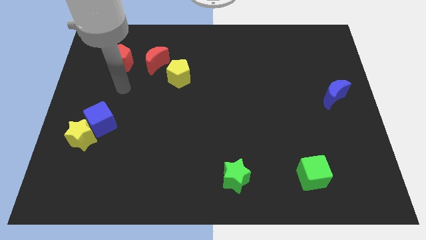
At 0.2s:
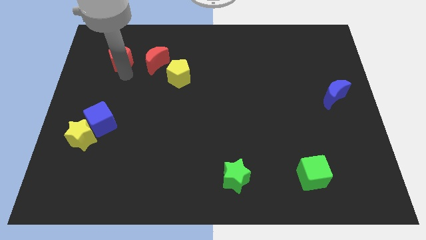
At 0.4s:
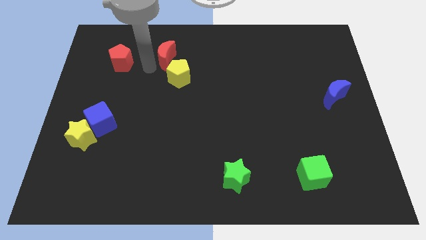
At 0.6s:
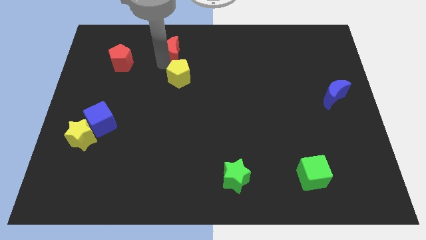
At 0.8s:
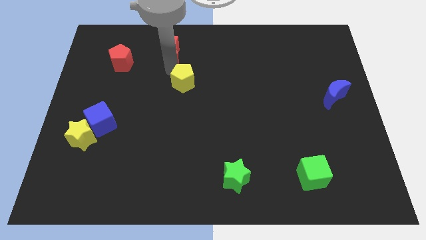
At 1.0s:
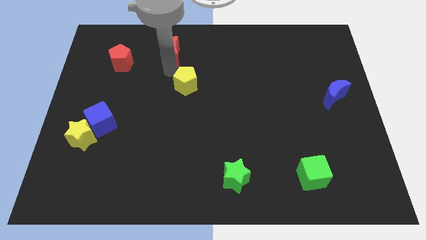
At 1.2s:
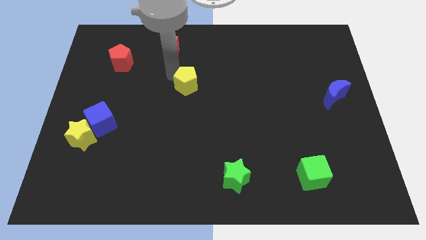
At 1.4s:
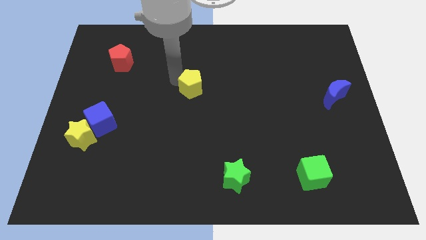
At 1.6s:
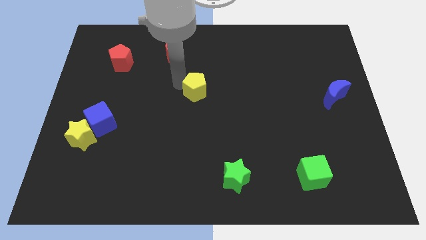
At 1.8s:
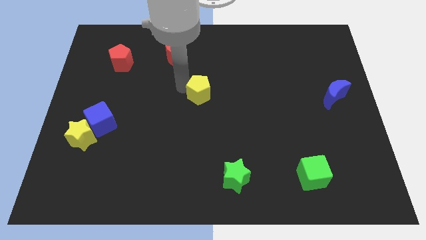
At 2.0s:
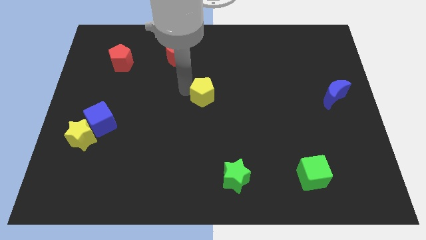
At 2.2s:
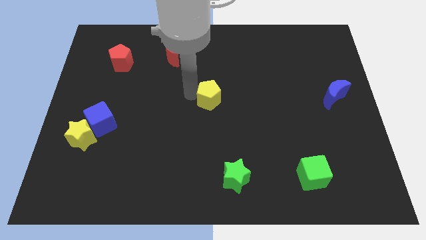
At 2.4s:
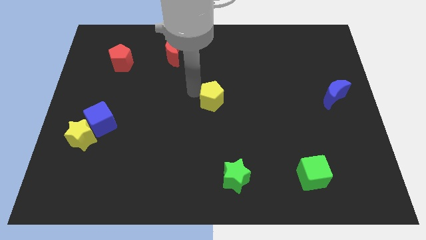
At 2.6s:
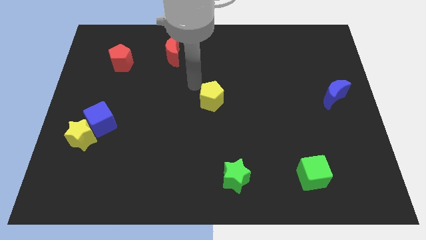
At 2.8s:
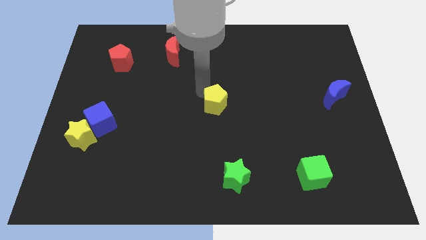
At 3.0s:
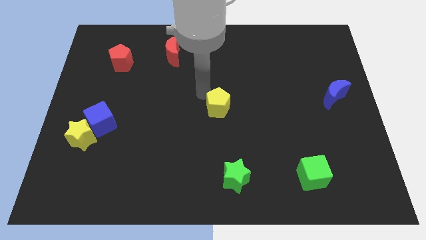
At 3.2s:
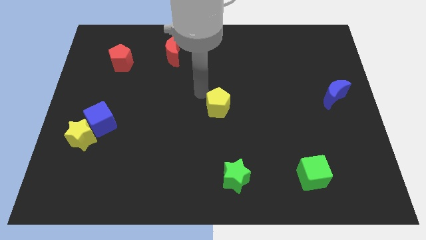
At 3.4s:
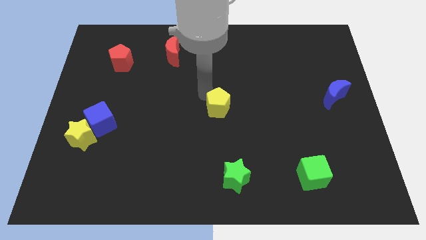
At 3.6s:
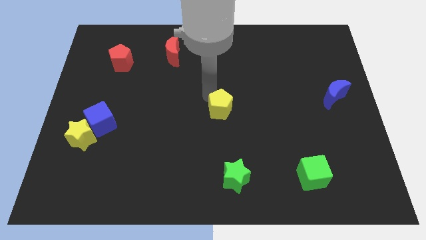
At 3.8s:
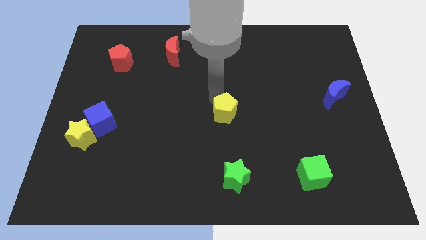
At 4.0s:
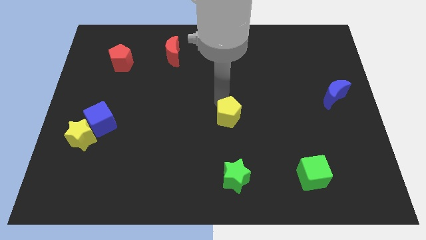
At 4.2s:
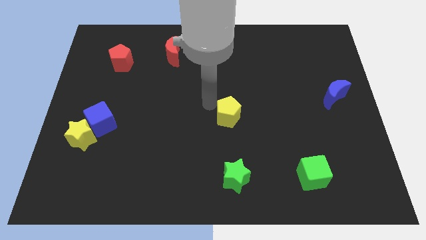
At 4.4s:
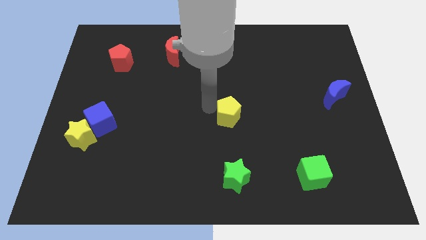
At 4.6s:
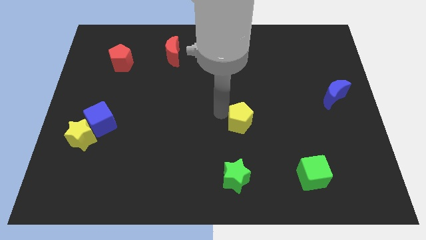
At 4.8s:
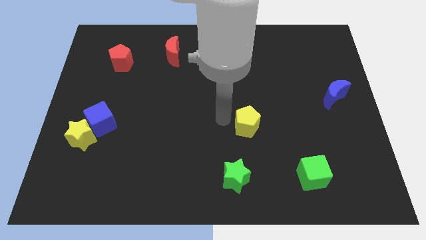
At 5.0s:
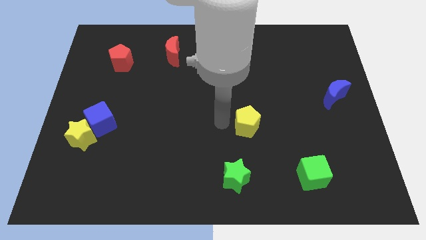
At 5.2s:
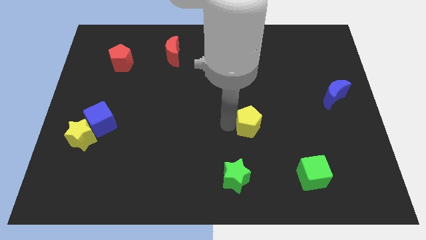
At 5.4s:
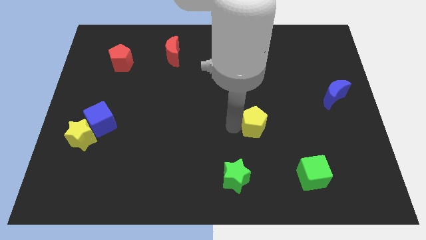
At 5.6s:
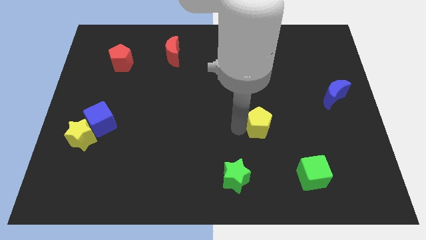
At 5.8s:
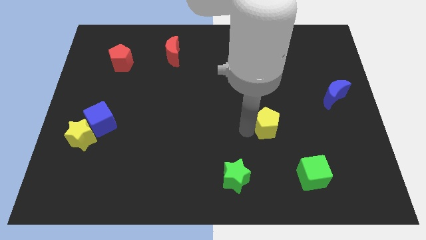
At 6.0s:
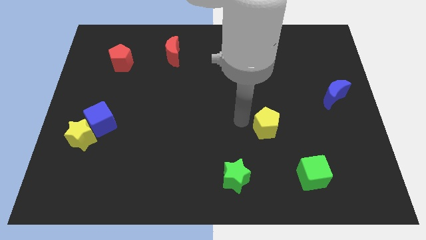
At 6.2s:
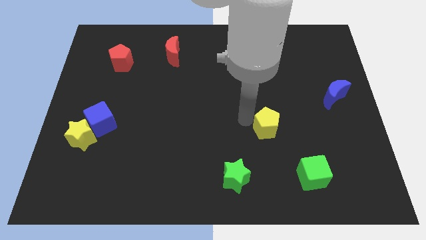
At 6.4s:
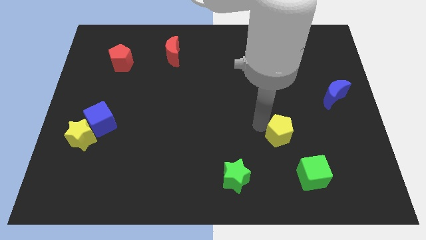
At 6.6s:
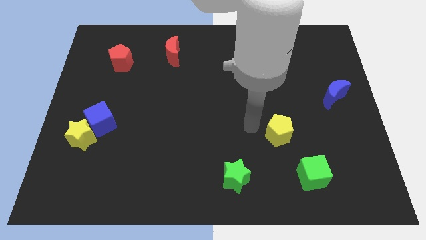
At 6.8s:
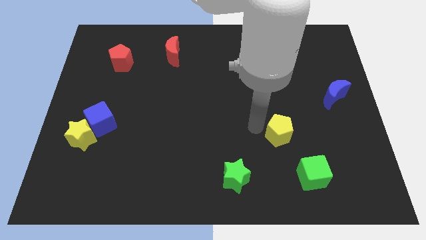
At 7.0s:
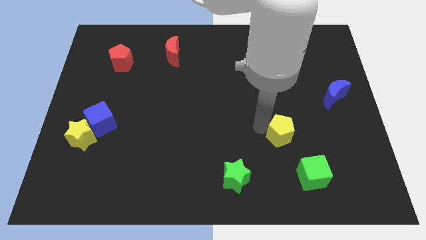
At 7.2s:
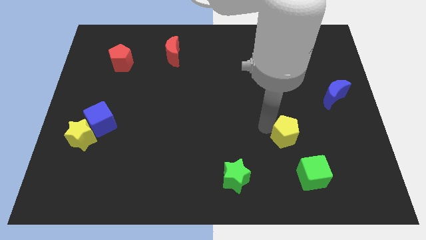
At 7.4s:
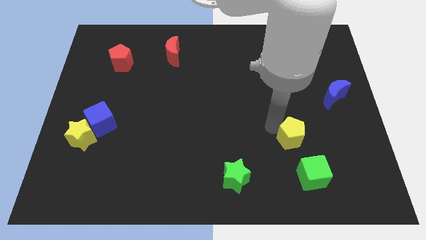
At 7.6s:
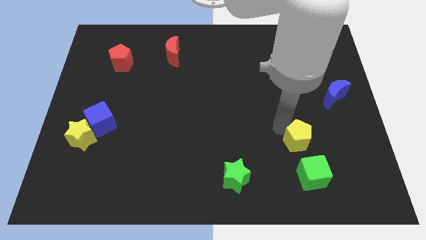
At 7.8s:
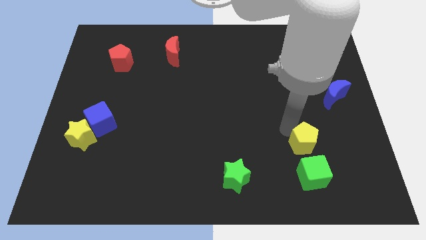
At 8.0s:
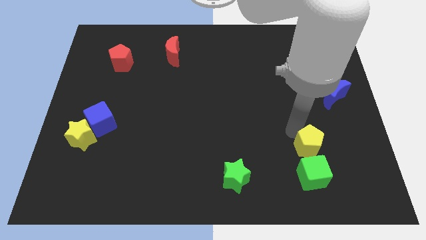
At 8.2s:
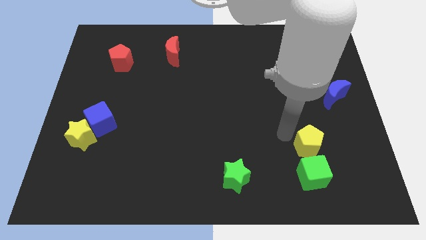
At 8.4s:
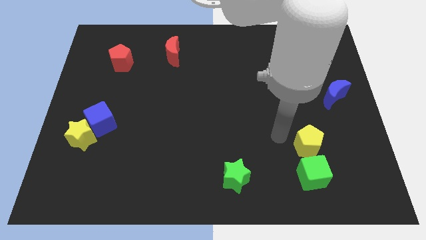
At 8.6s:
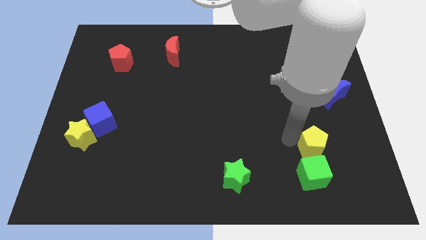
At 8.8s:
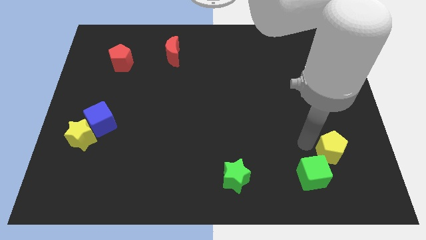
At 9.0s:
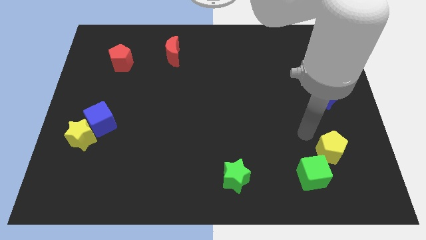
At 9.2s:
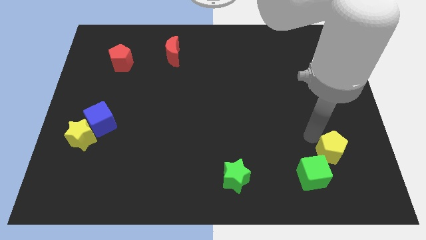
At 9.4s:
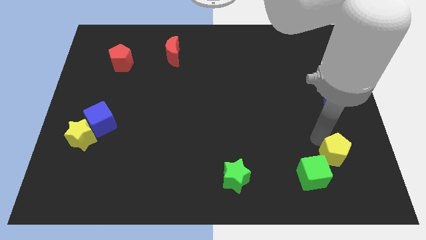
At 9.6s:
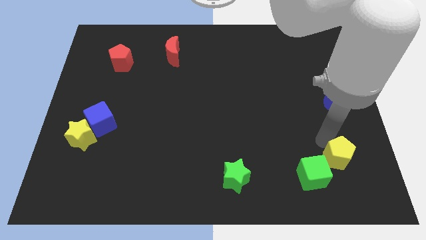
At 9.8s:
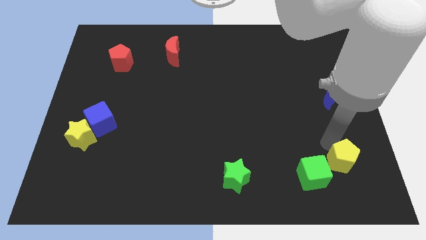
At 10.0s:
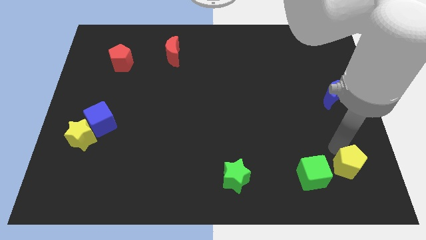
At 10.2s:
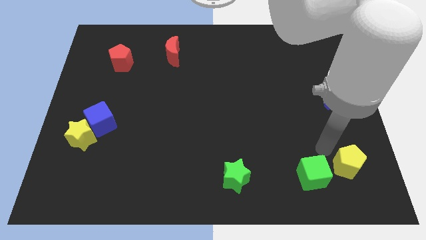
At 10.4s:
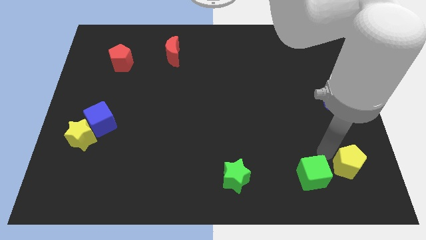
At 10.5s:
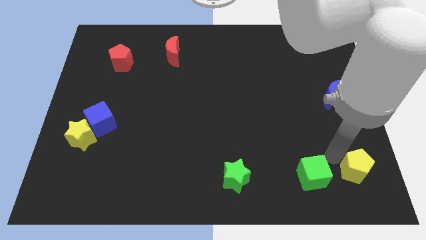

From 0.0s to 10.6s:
move the yellow pentagon to the bottom right corner
